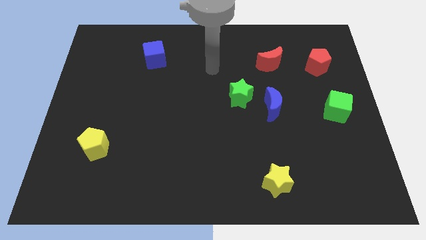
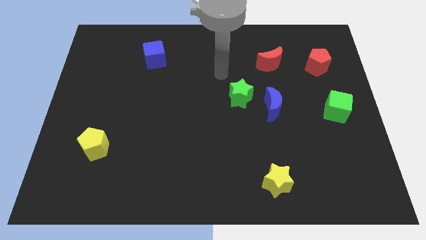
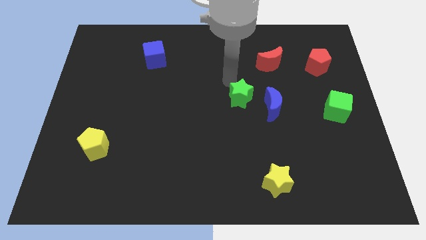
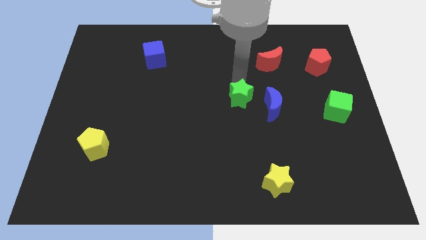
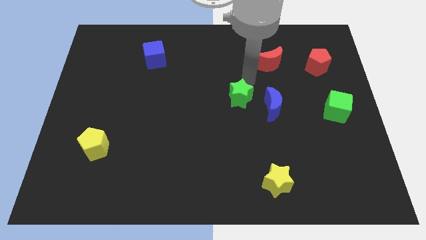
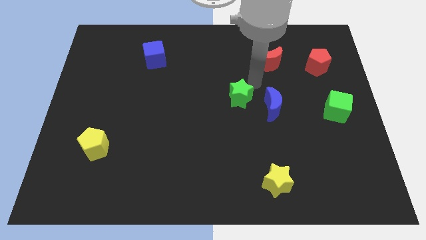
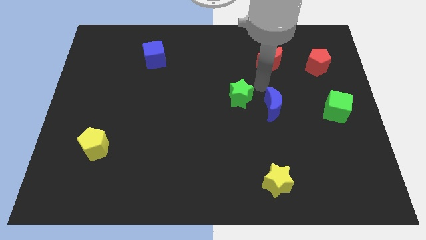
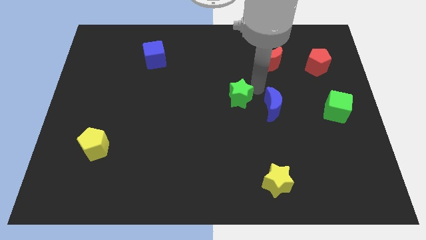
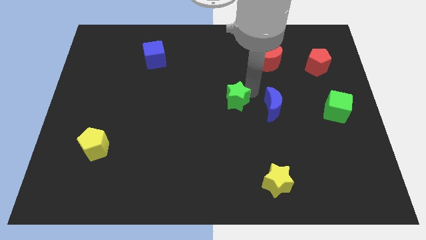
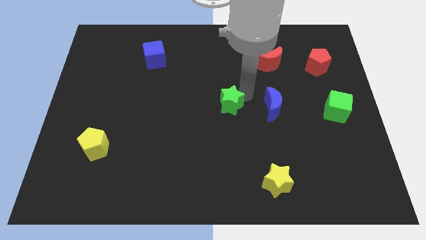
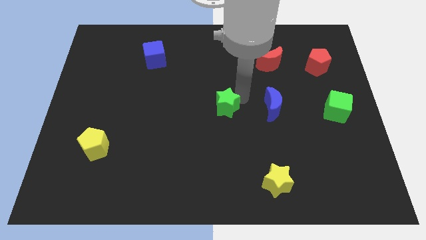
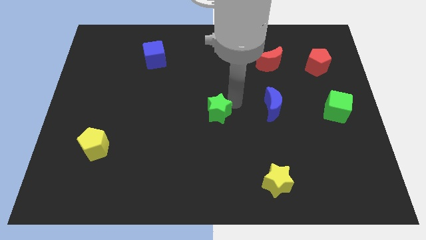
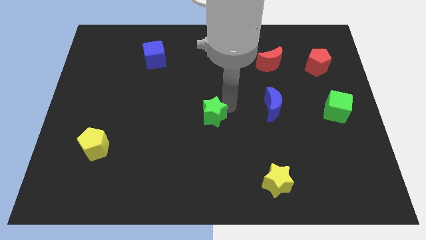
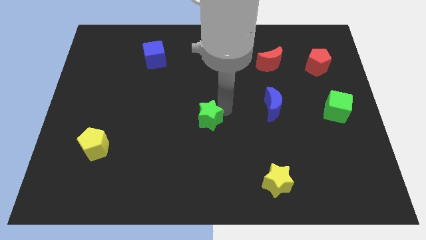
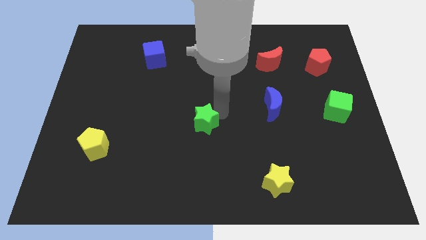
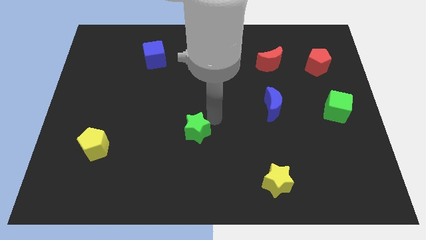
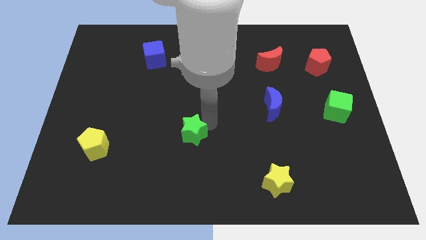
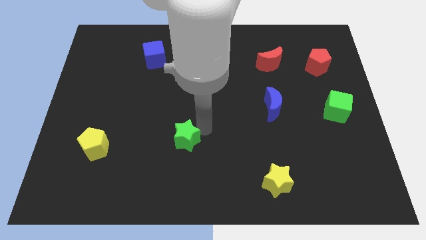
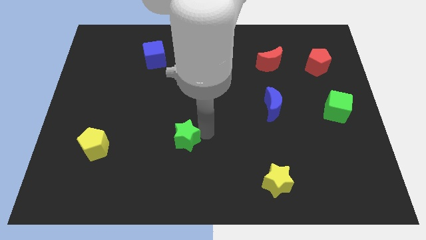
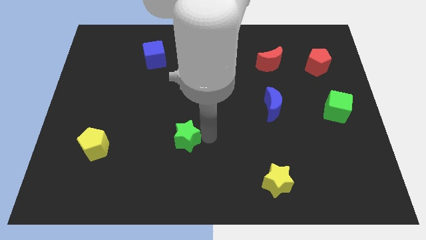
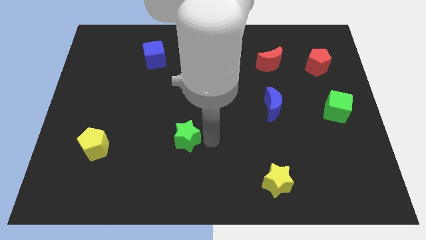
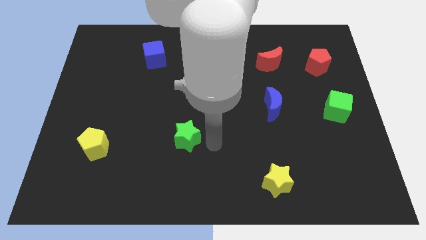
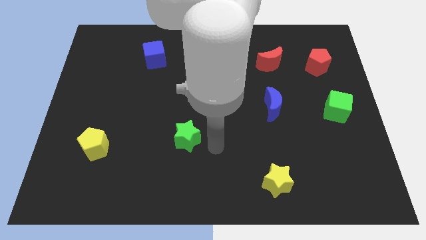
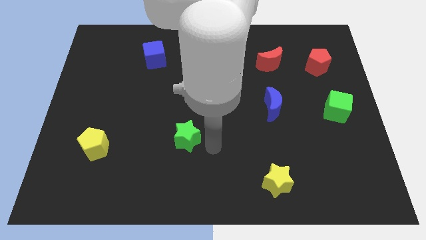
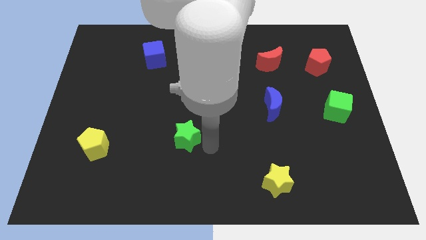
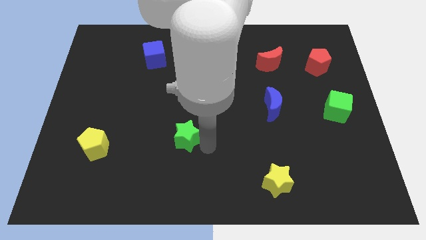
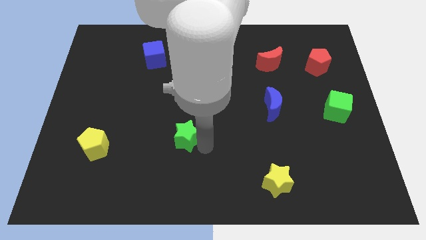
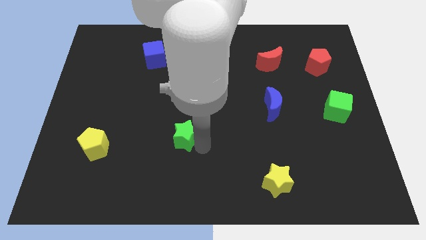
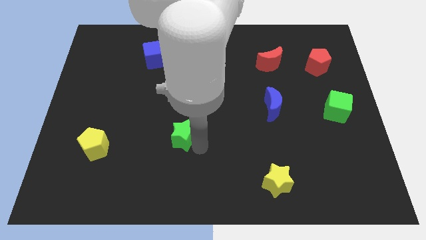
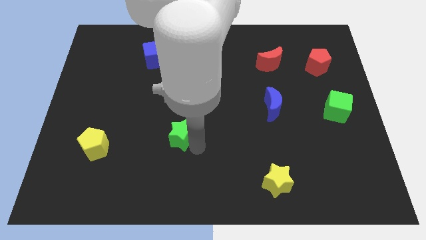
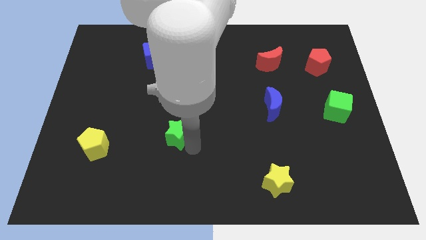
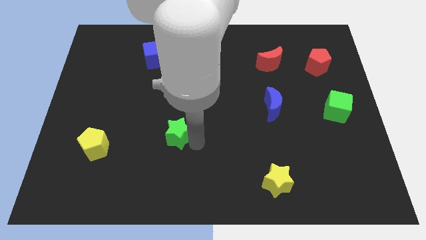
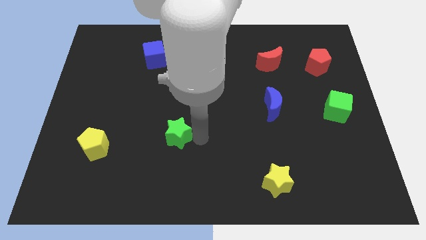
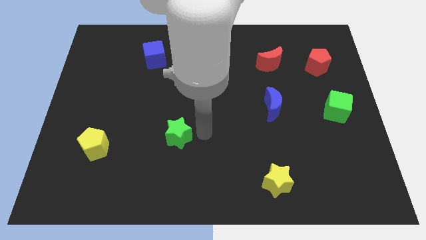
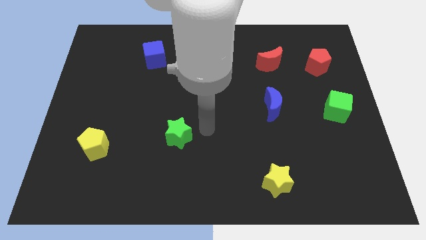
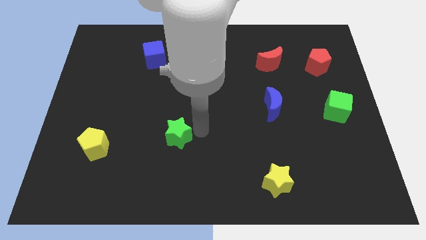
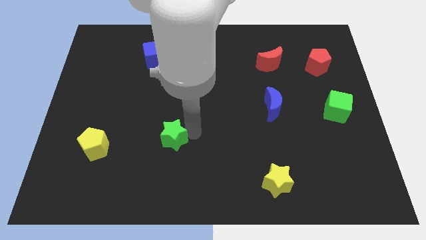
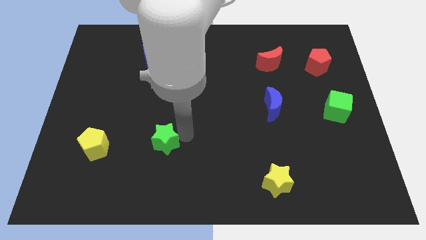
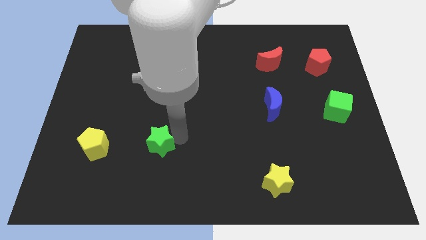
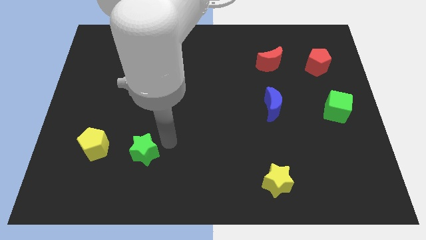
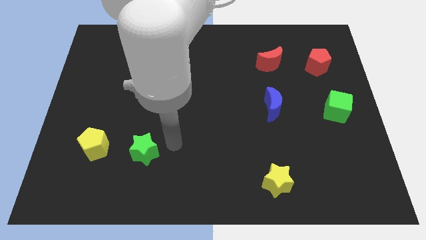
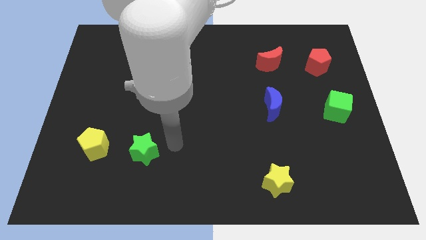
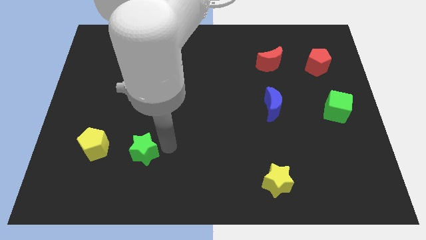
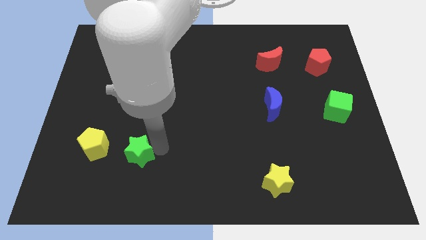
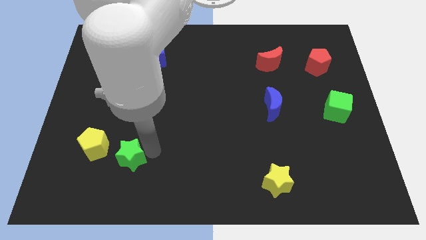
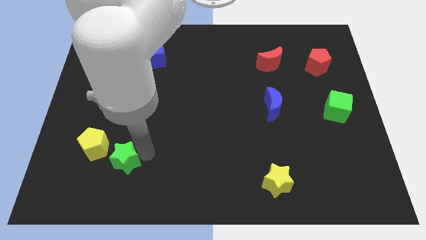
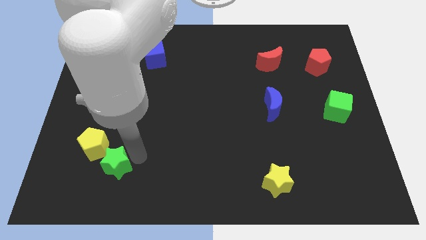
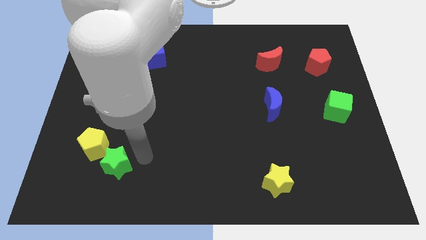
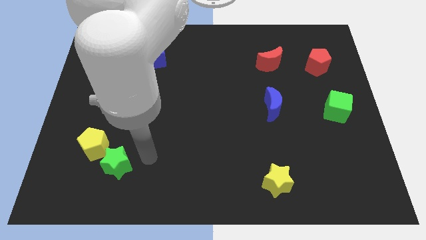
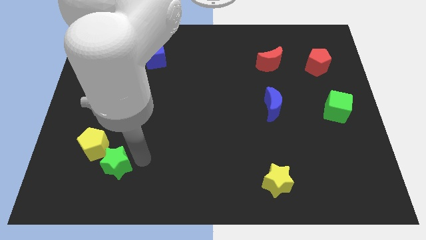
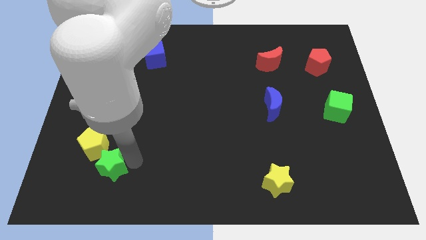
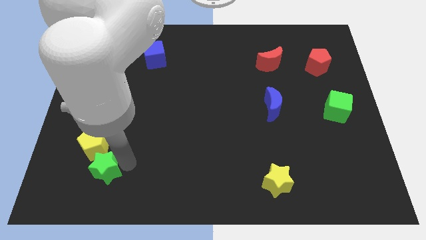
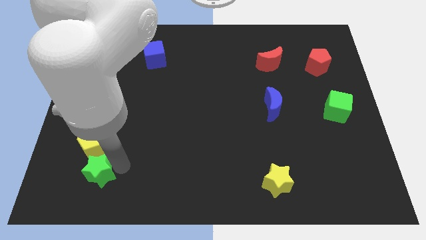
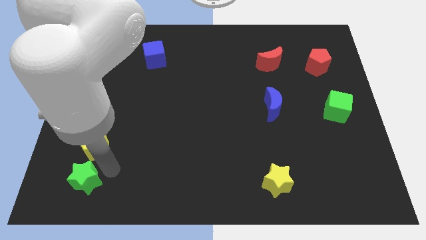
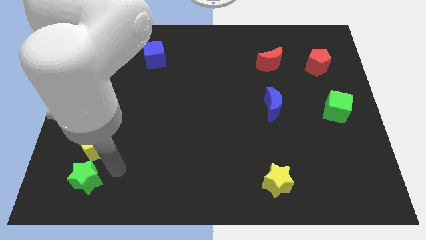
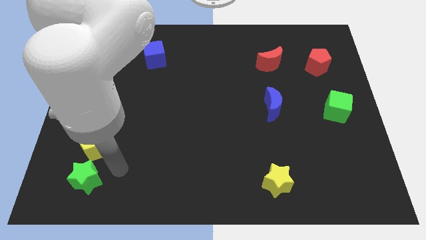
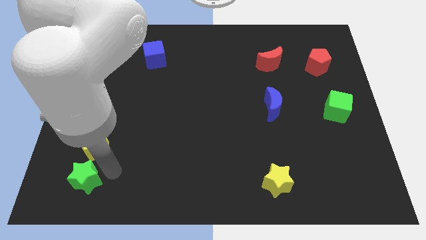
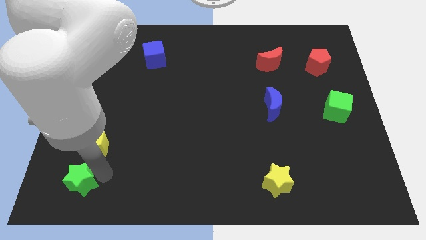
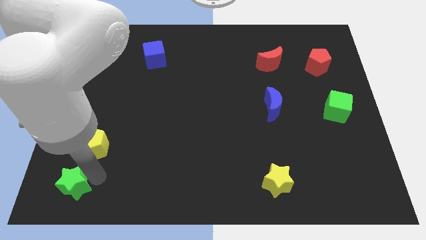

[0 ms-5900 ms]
slide the green star to the lower left corner
